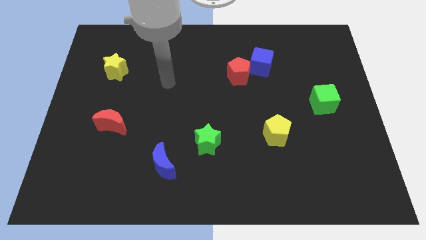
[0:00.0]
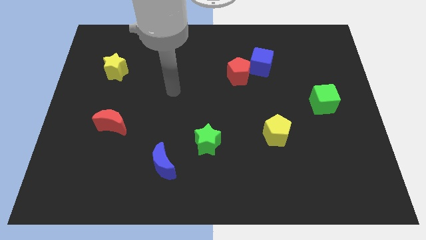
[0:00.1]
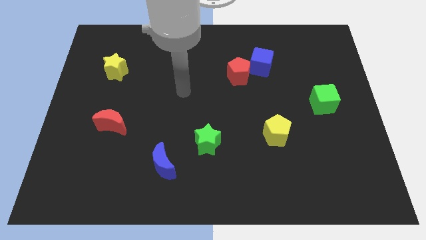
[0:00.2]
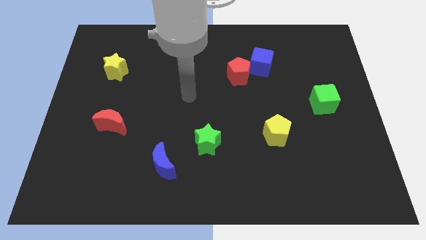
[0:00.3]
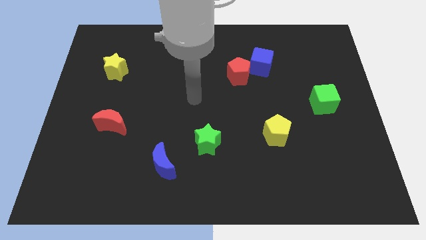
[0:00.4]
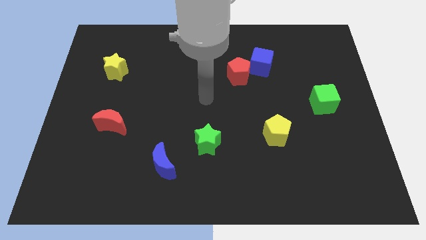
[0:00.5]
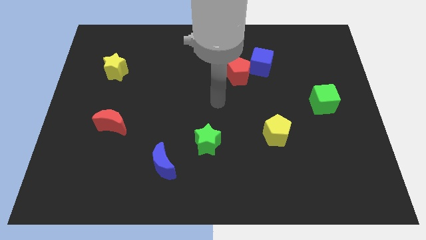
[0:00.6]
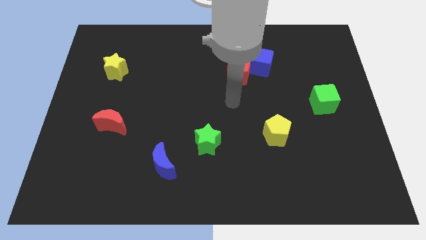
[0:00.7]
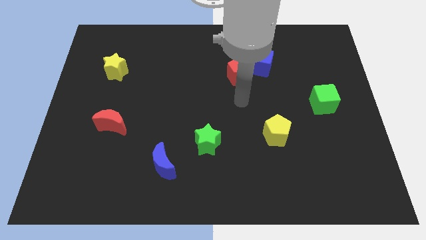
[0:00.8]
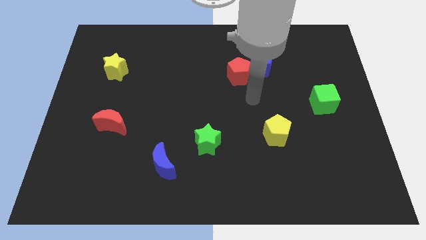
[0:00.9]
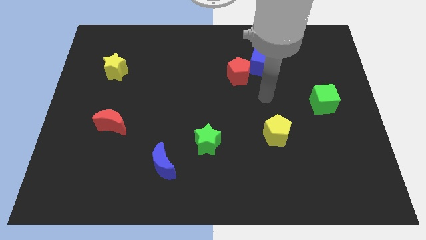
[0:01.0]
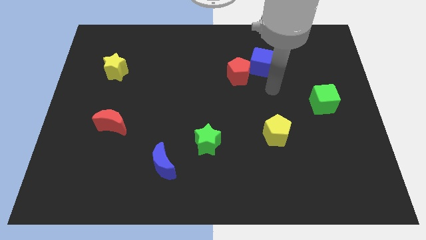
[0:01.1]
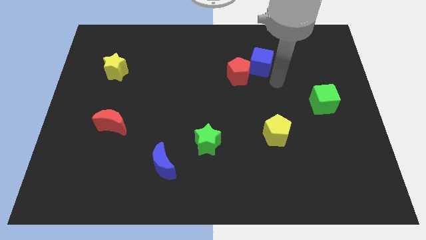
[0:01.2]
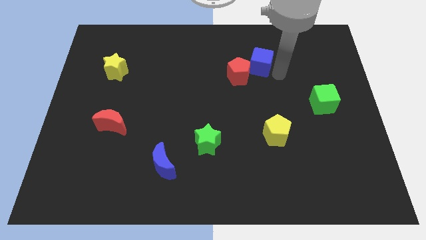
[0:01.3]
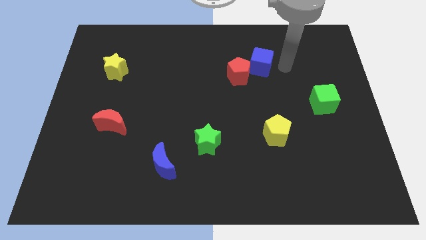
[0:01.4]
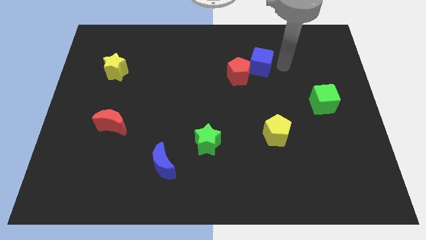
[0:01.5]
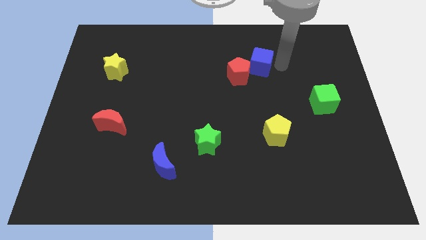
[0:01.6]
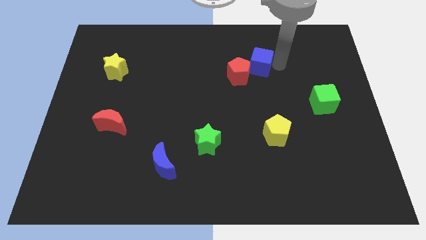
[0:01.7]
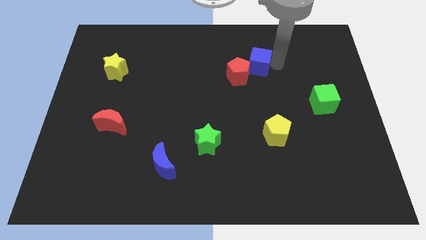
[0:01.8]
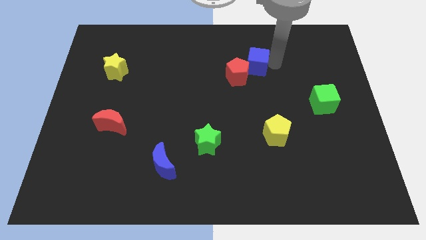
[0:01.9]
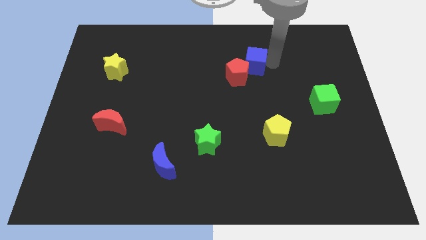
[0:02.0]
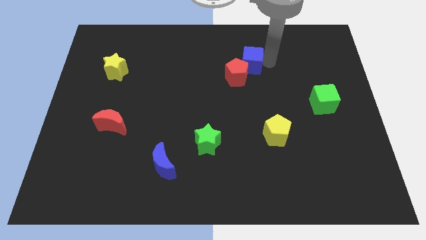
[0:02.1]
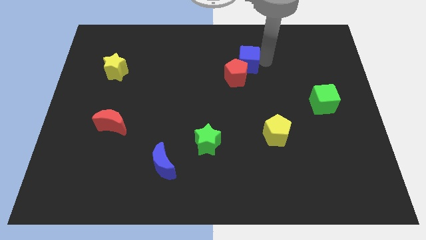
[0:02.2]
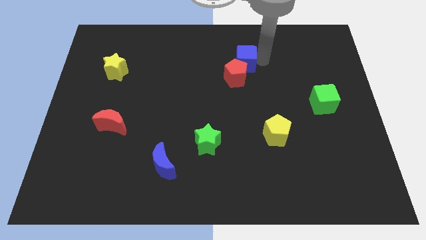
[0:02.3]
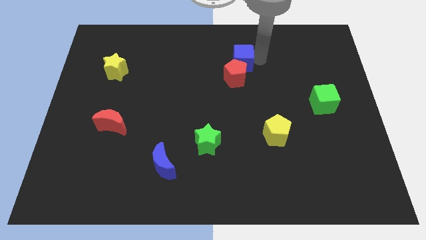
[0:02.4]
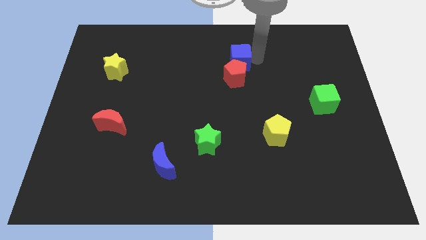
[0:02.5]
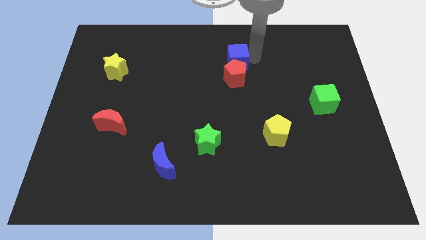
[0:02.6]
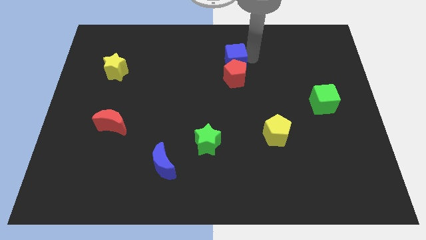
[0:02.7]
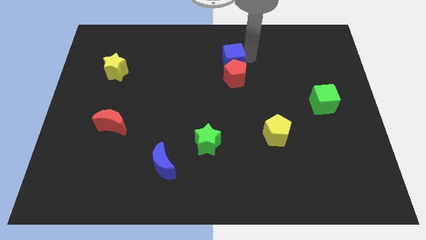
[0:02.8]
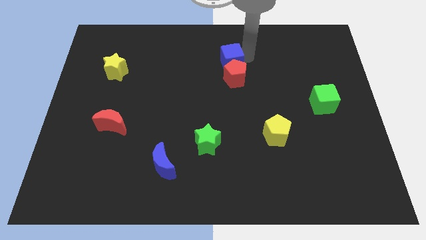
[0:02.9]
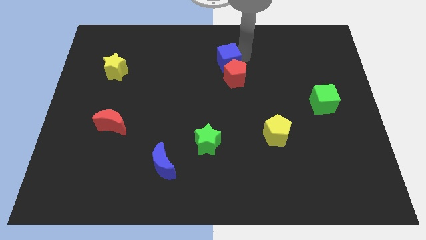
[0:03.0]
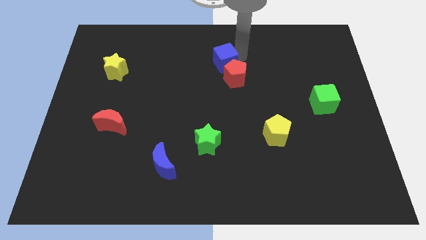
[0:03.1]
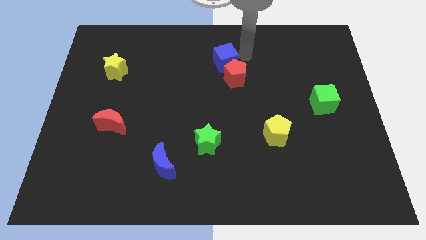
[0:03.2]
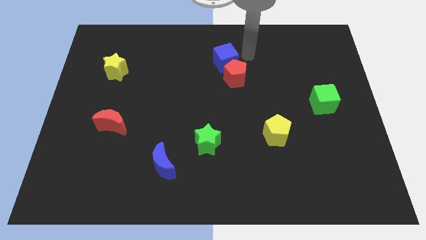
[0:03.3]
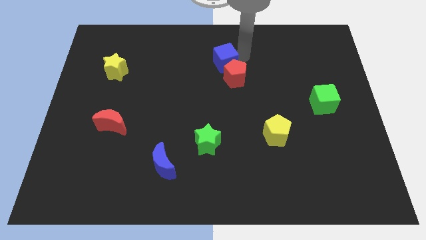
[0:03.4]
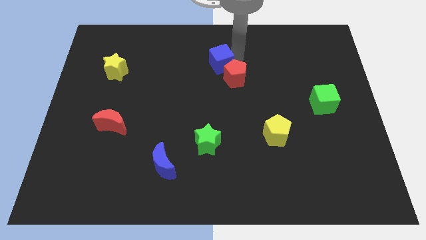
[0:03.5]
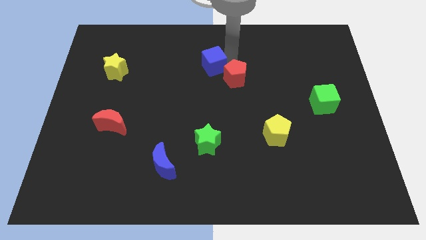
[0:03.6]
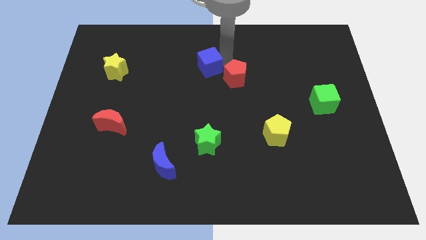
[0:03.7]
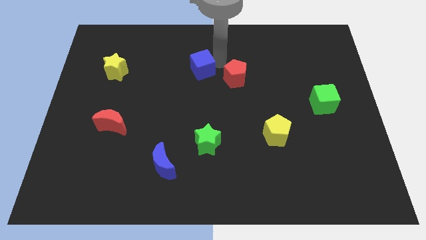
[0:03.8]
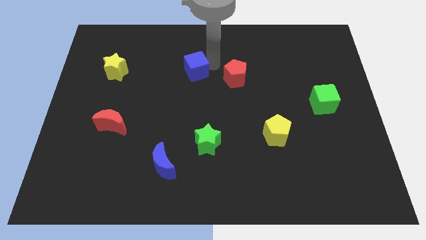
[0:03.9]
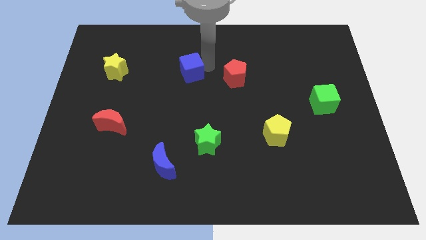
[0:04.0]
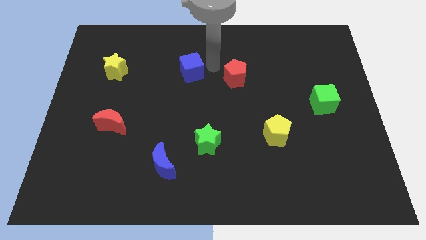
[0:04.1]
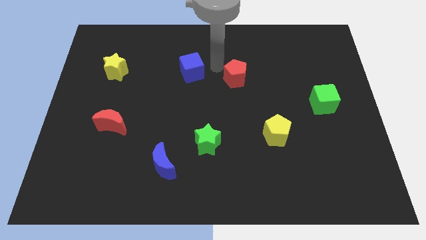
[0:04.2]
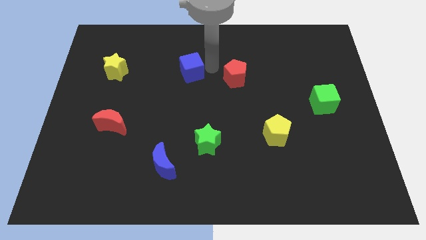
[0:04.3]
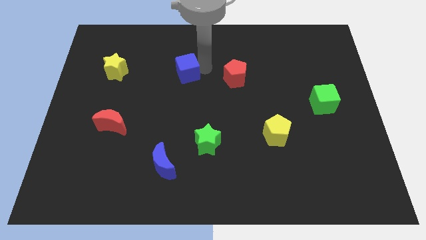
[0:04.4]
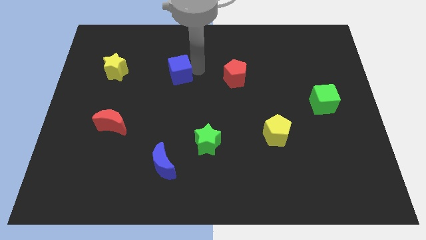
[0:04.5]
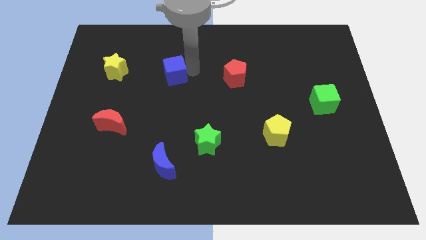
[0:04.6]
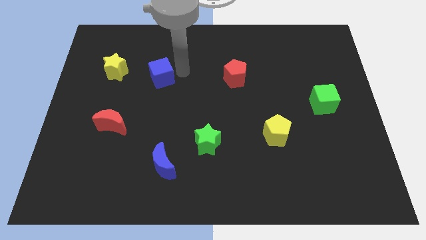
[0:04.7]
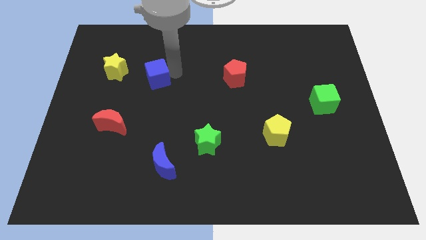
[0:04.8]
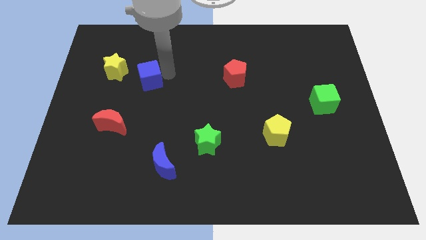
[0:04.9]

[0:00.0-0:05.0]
move the blue cube to the bottom right side of the yellow star

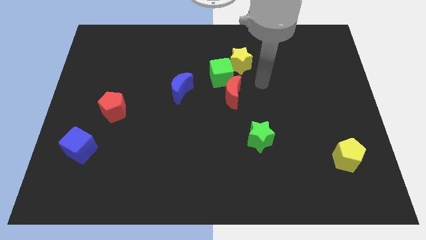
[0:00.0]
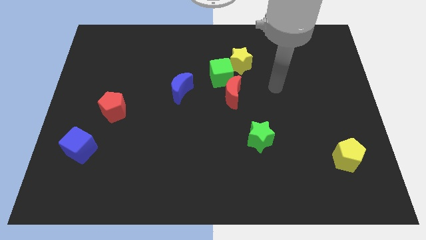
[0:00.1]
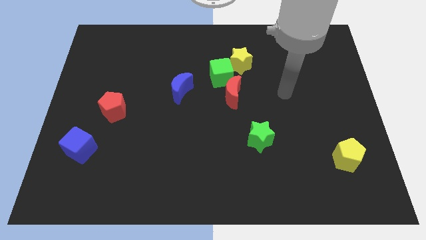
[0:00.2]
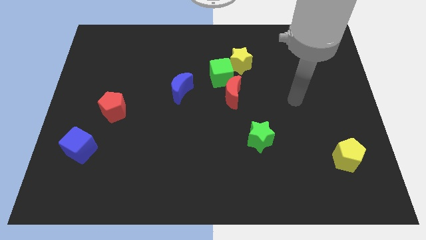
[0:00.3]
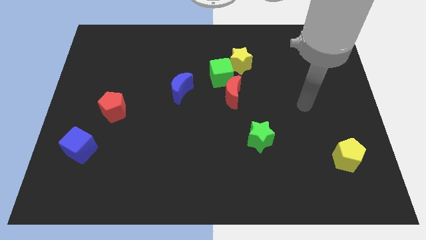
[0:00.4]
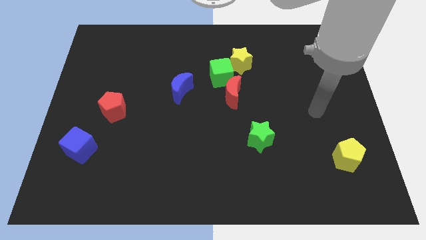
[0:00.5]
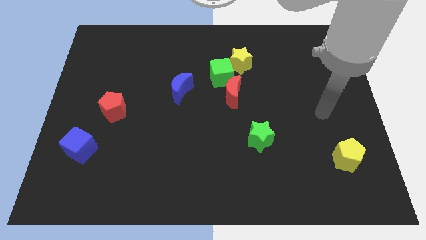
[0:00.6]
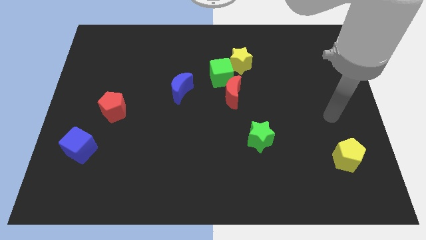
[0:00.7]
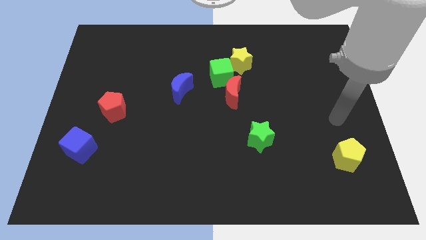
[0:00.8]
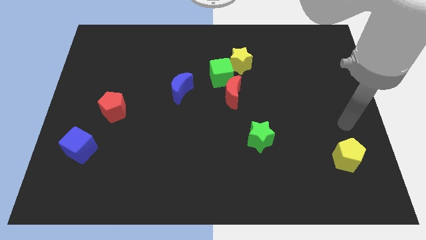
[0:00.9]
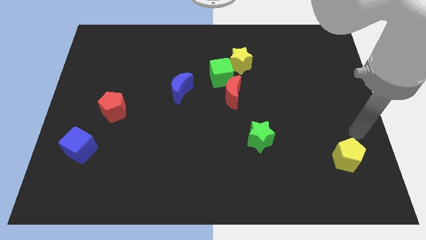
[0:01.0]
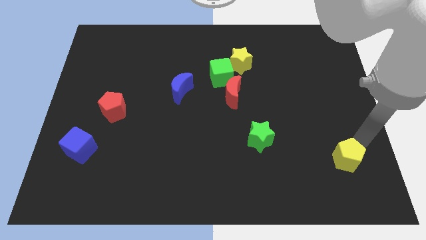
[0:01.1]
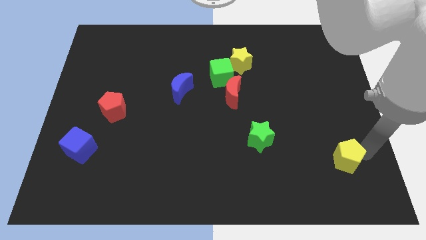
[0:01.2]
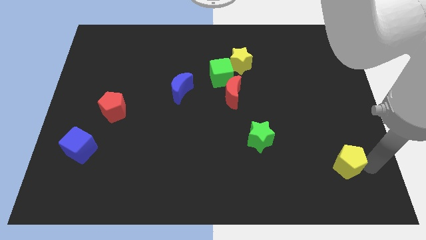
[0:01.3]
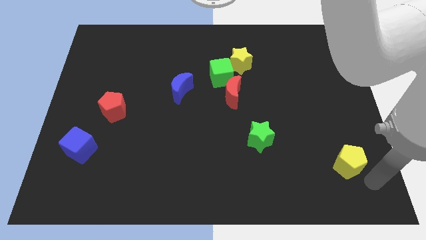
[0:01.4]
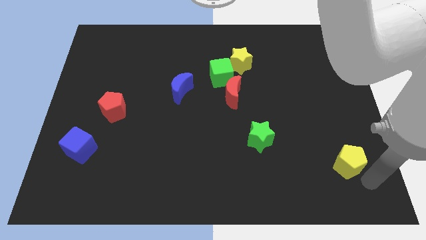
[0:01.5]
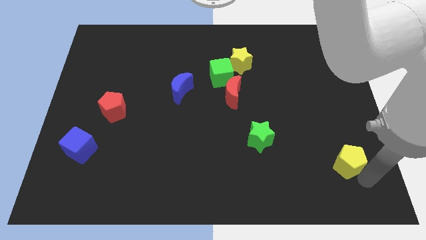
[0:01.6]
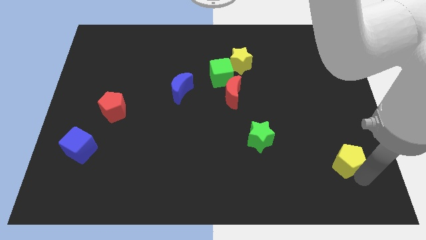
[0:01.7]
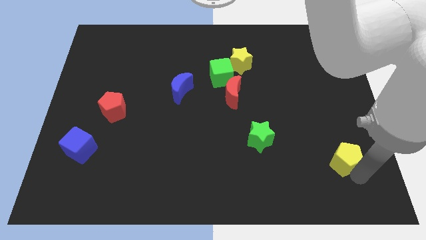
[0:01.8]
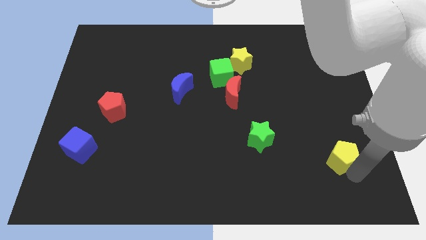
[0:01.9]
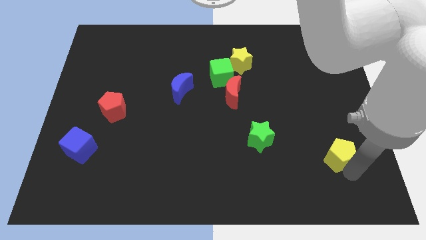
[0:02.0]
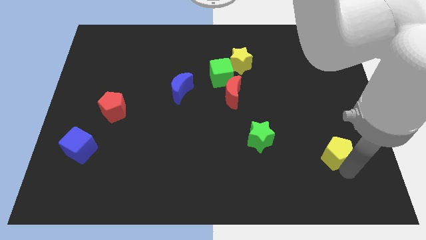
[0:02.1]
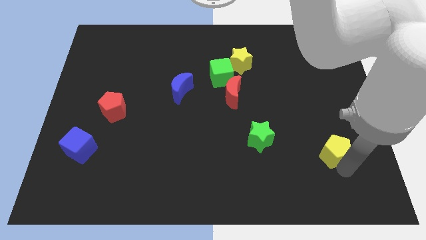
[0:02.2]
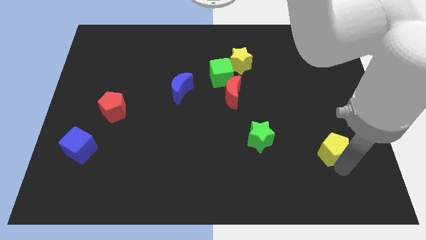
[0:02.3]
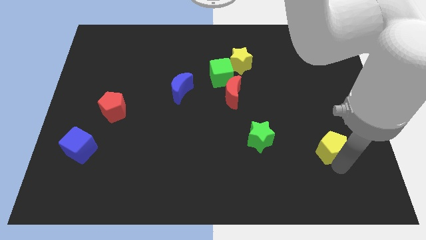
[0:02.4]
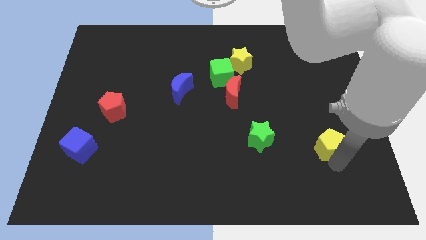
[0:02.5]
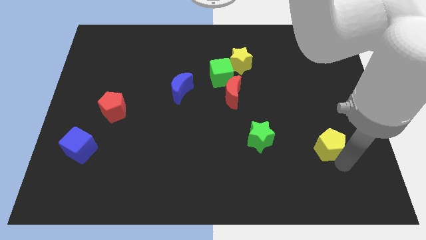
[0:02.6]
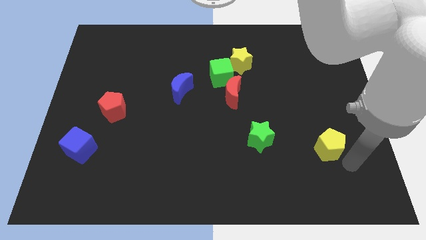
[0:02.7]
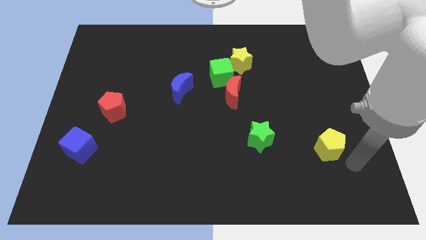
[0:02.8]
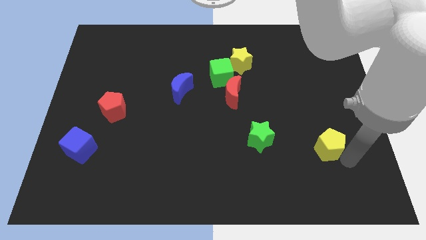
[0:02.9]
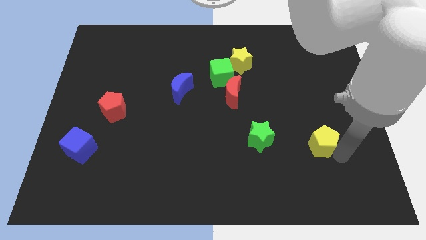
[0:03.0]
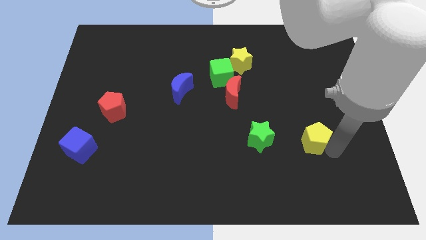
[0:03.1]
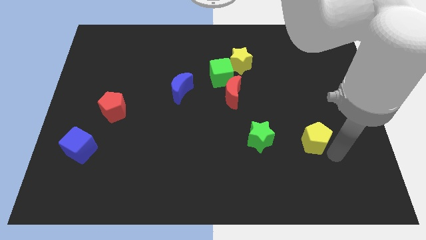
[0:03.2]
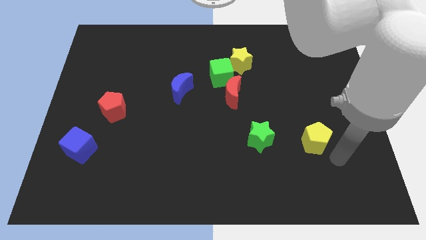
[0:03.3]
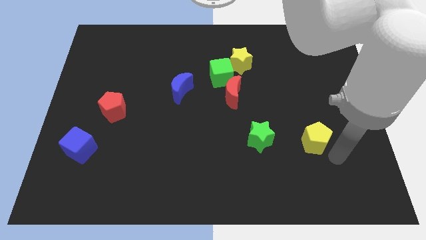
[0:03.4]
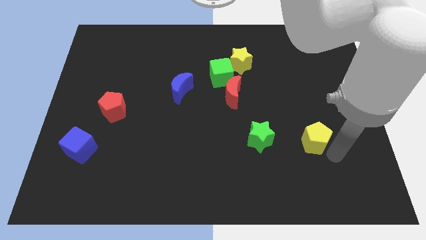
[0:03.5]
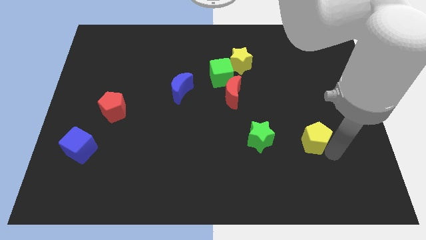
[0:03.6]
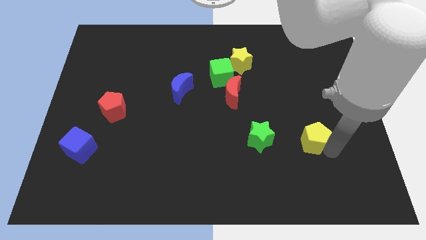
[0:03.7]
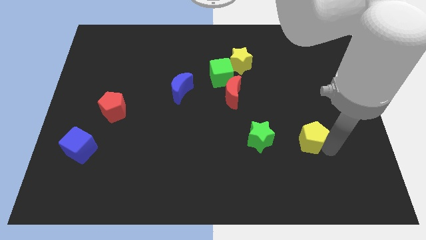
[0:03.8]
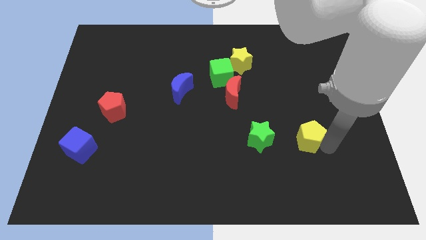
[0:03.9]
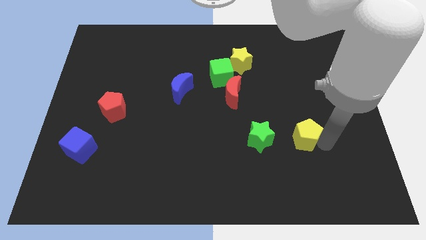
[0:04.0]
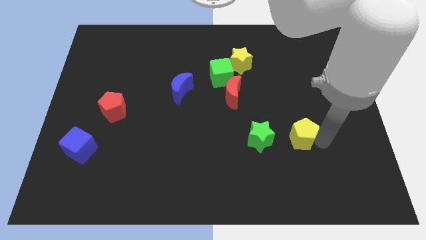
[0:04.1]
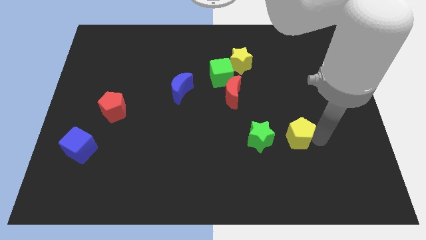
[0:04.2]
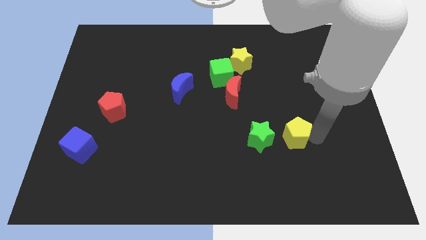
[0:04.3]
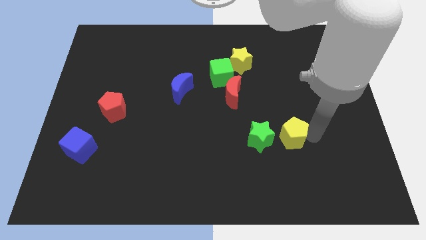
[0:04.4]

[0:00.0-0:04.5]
move the yellow pentagon to the top right side of the green star
